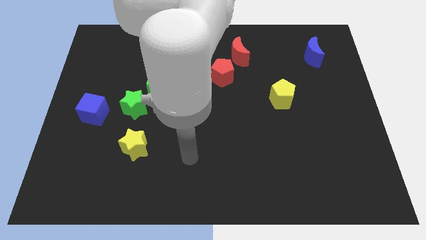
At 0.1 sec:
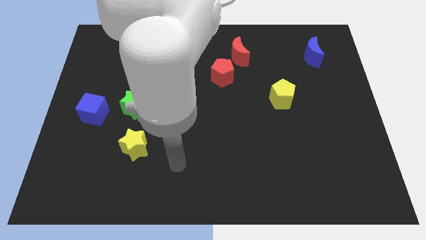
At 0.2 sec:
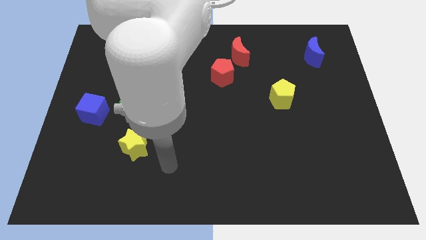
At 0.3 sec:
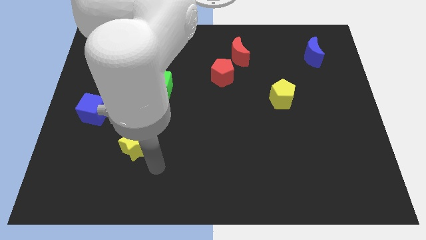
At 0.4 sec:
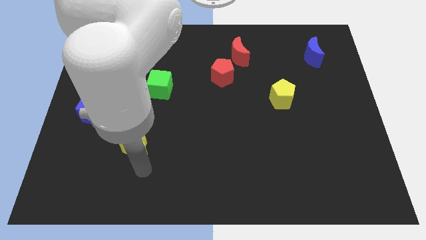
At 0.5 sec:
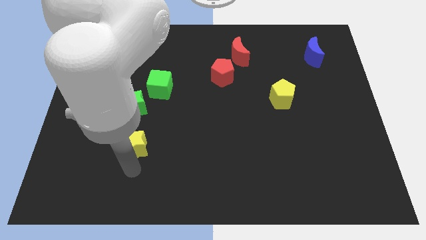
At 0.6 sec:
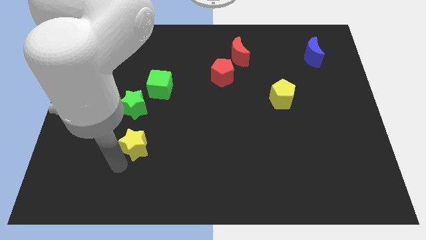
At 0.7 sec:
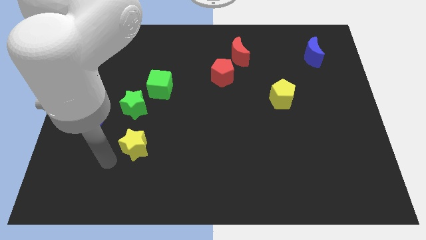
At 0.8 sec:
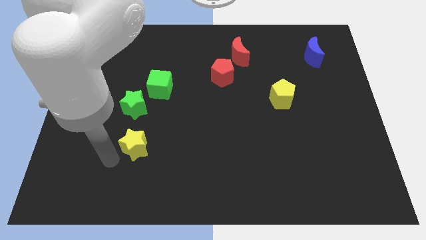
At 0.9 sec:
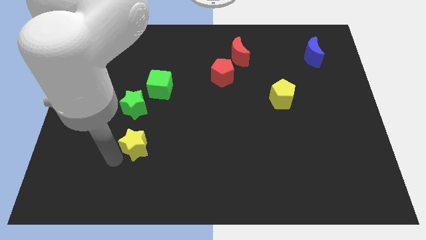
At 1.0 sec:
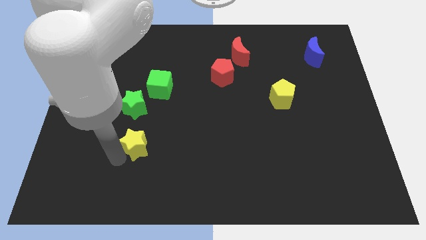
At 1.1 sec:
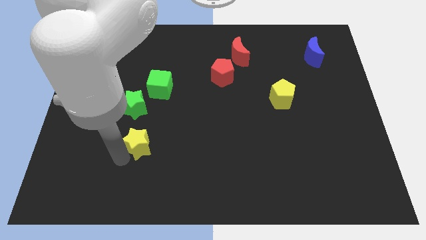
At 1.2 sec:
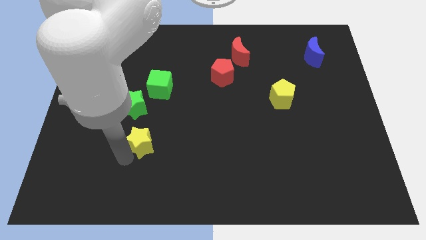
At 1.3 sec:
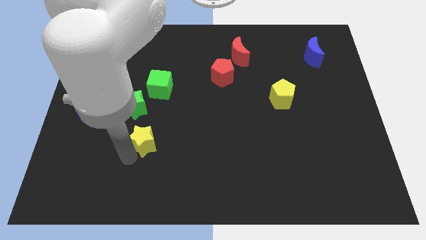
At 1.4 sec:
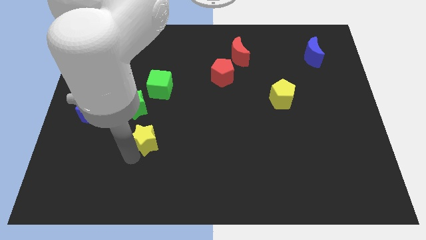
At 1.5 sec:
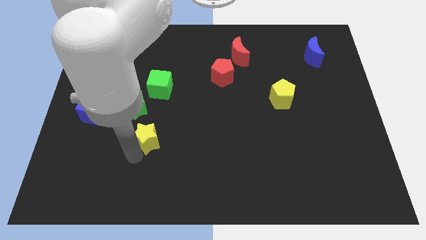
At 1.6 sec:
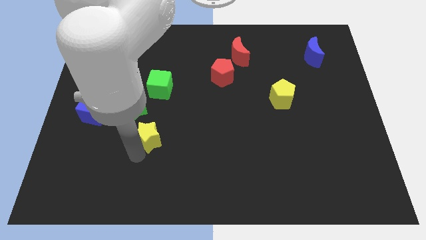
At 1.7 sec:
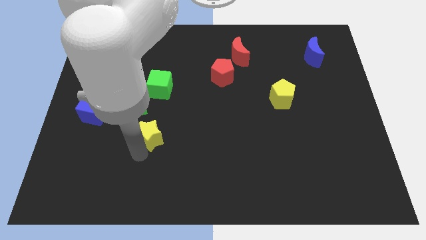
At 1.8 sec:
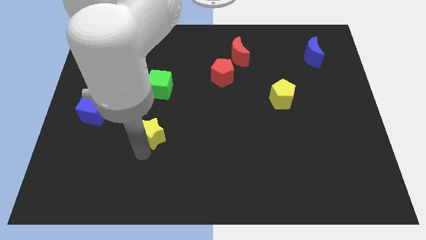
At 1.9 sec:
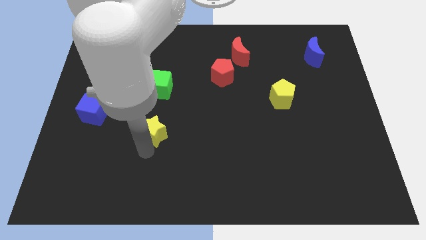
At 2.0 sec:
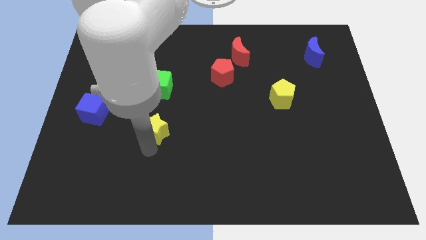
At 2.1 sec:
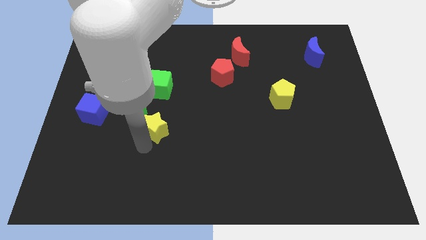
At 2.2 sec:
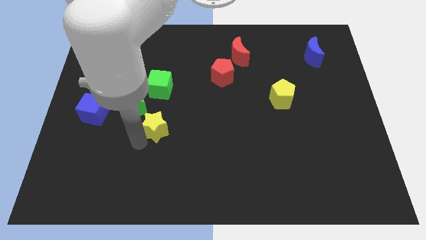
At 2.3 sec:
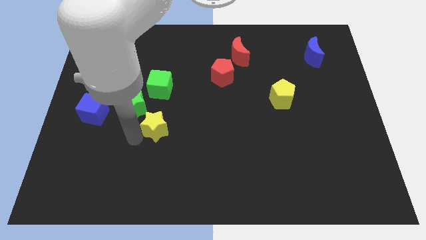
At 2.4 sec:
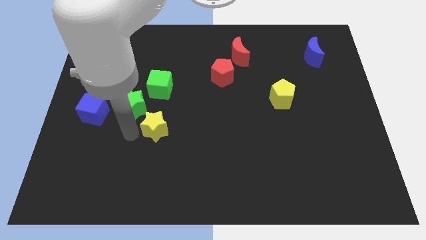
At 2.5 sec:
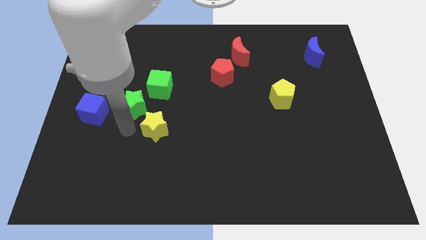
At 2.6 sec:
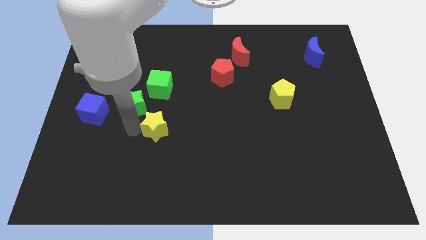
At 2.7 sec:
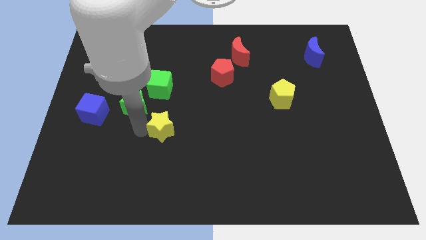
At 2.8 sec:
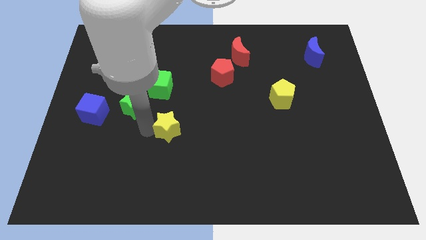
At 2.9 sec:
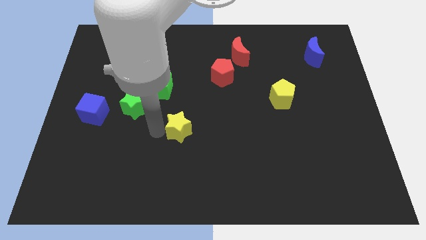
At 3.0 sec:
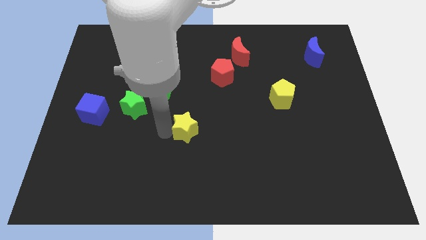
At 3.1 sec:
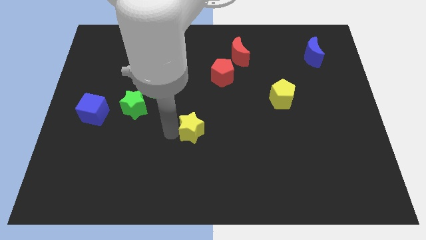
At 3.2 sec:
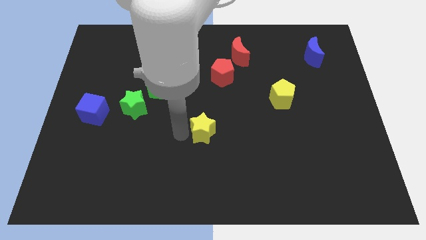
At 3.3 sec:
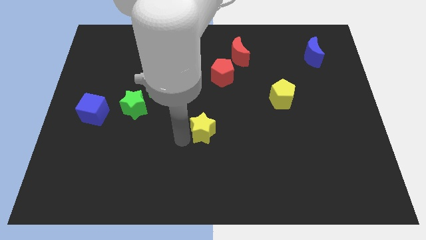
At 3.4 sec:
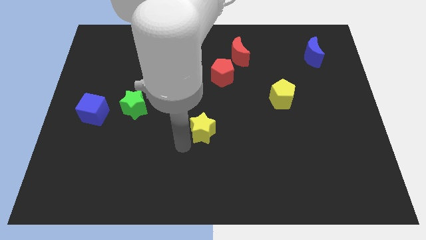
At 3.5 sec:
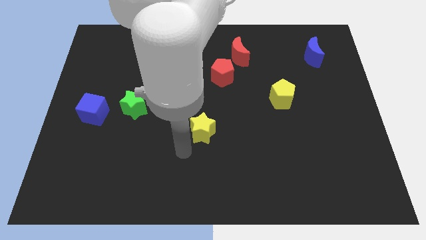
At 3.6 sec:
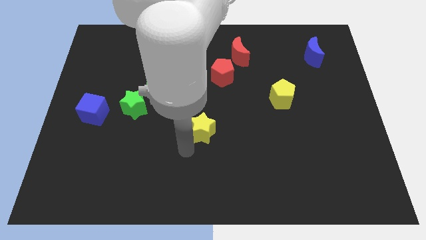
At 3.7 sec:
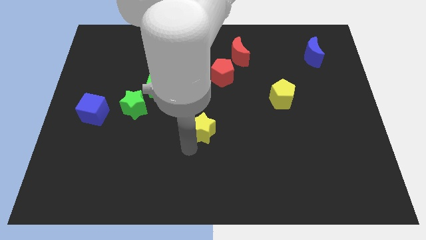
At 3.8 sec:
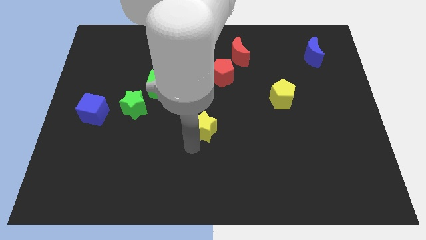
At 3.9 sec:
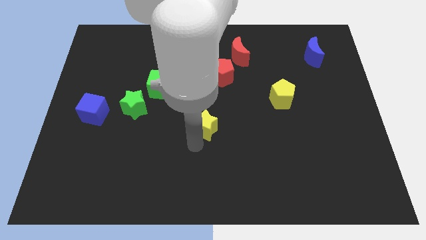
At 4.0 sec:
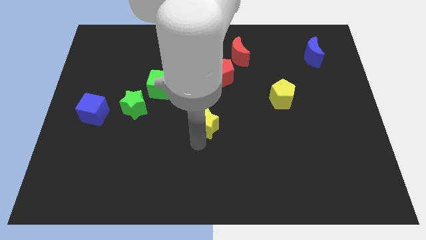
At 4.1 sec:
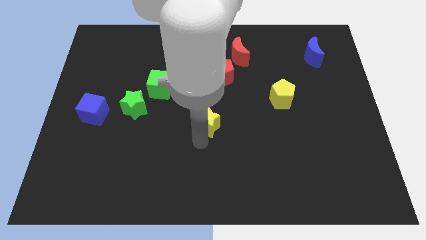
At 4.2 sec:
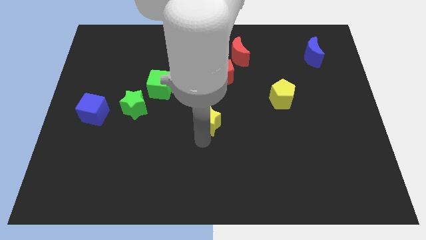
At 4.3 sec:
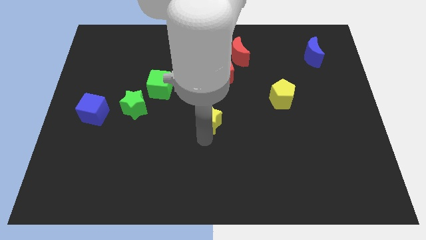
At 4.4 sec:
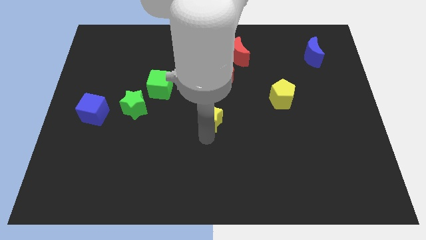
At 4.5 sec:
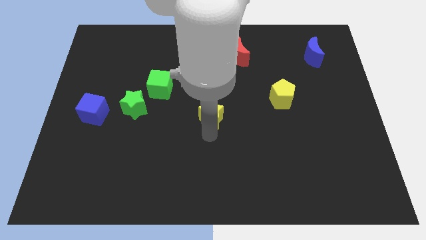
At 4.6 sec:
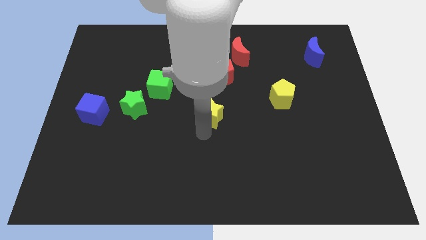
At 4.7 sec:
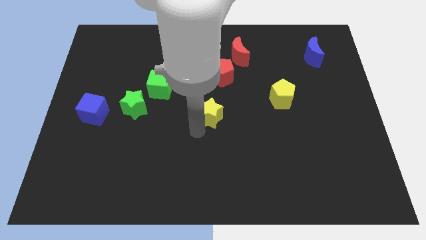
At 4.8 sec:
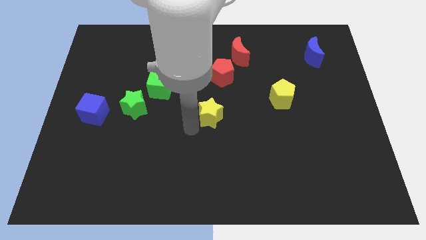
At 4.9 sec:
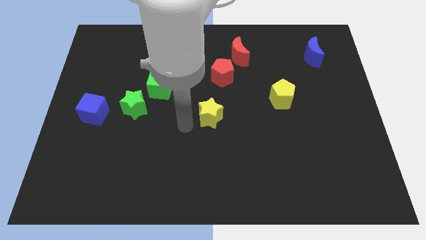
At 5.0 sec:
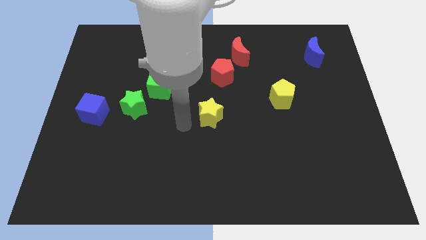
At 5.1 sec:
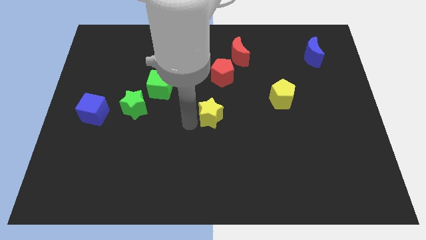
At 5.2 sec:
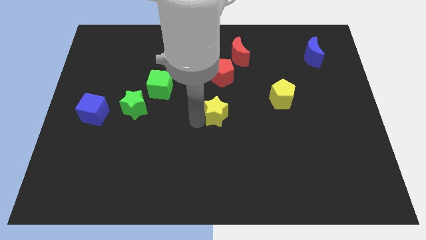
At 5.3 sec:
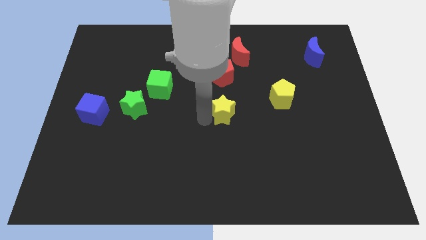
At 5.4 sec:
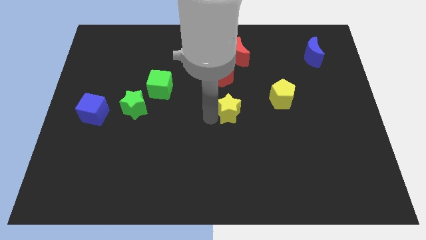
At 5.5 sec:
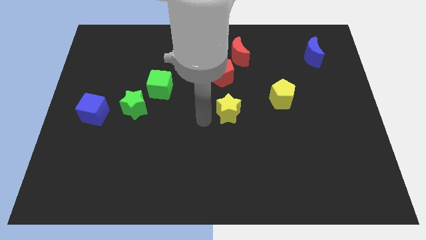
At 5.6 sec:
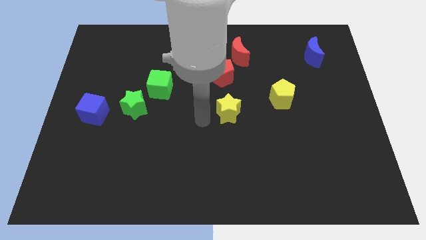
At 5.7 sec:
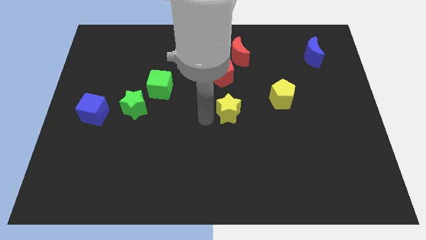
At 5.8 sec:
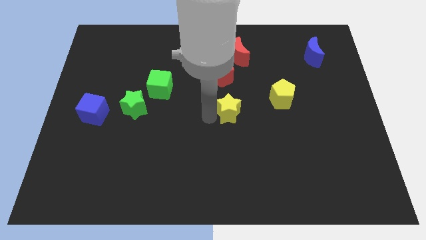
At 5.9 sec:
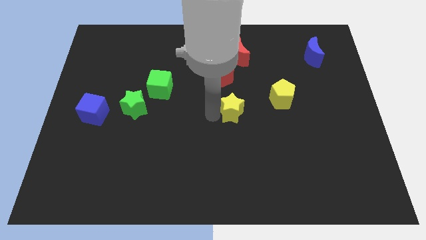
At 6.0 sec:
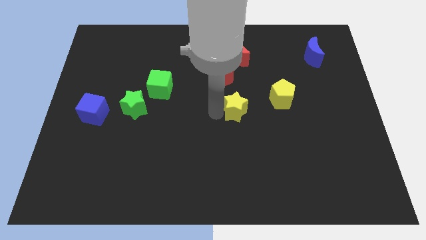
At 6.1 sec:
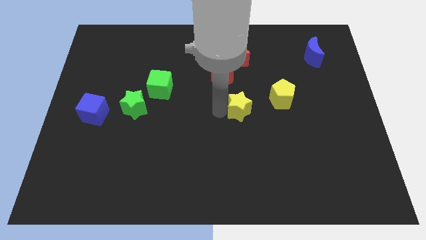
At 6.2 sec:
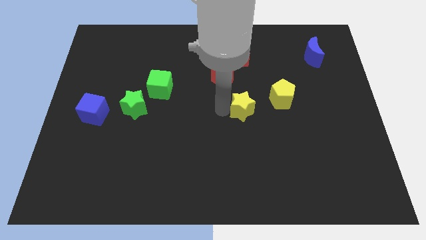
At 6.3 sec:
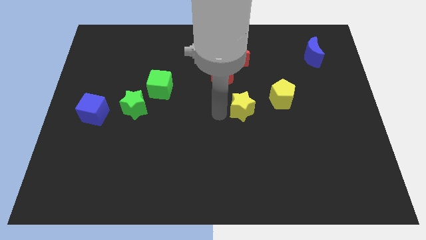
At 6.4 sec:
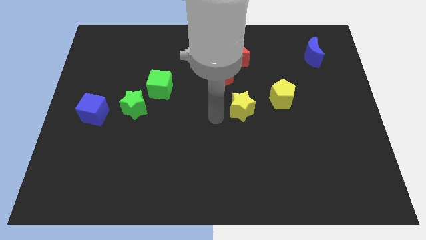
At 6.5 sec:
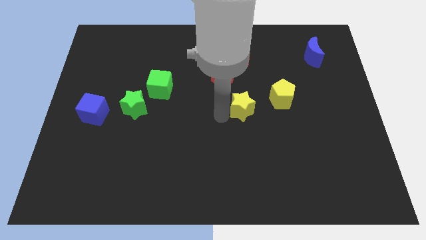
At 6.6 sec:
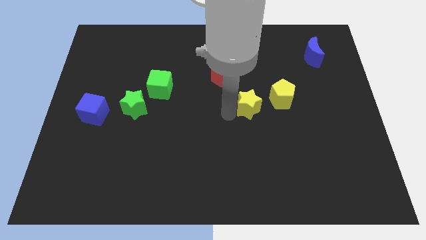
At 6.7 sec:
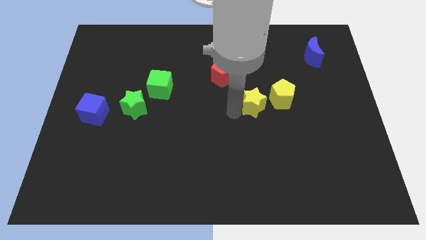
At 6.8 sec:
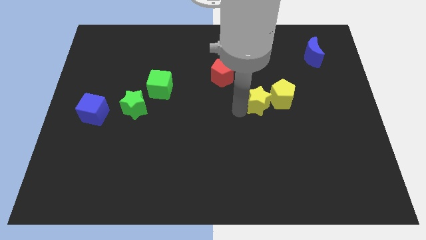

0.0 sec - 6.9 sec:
put the yellow star close to the yellow pentagon

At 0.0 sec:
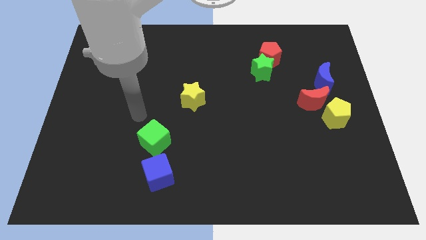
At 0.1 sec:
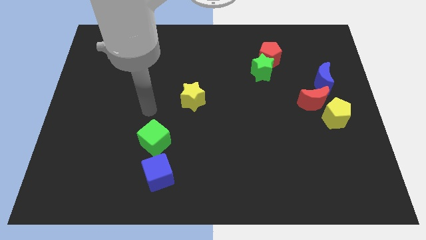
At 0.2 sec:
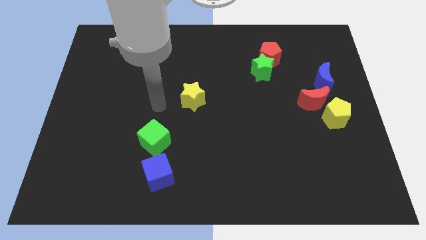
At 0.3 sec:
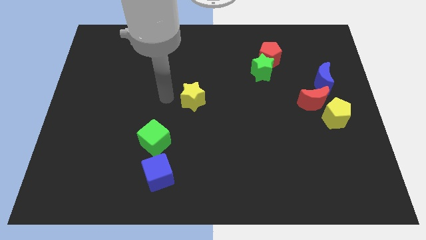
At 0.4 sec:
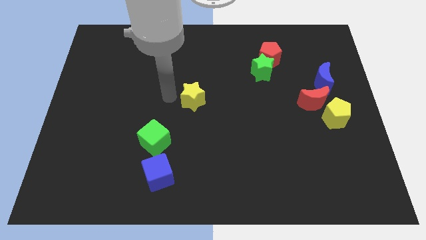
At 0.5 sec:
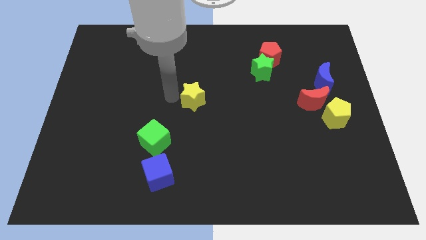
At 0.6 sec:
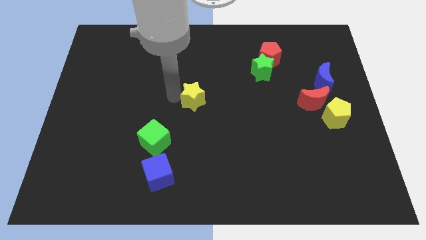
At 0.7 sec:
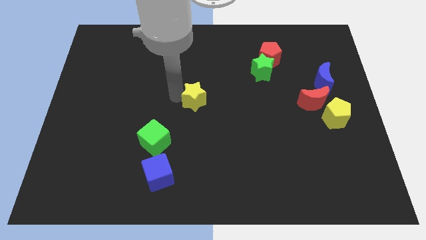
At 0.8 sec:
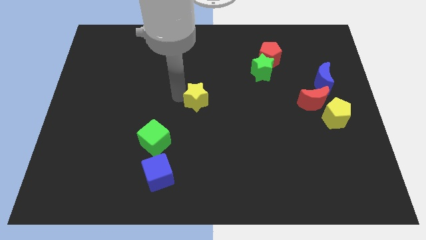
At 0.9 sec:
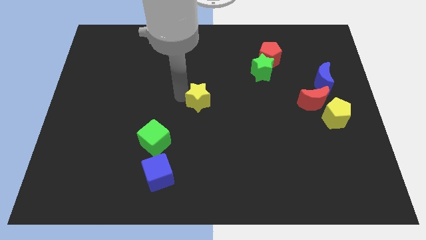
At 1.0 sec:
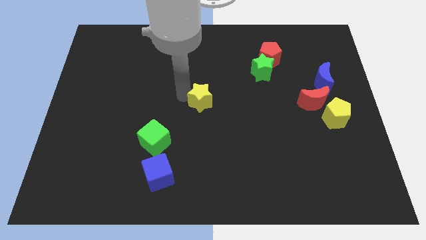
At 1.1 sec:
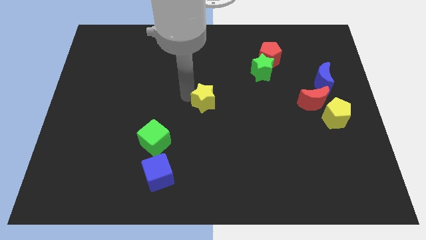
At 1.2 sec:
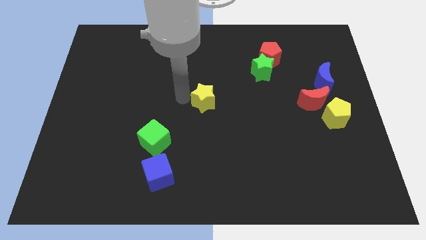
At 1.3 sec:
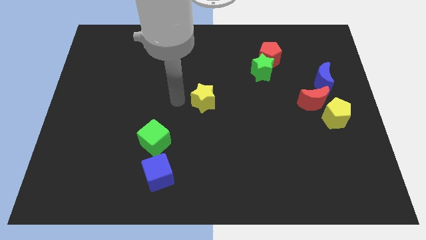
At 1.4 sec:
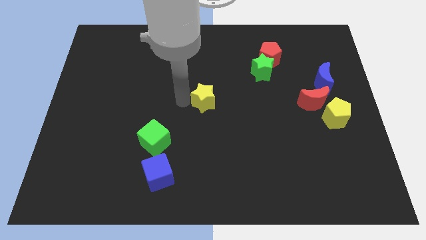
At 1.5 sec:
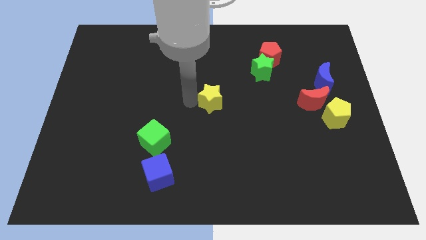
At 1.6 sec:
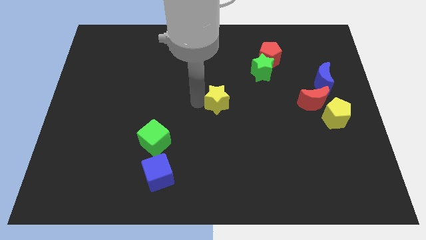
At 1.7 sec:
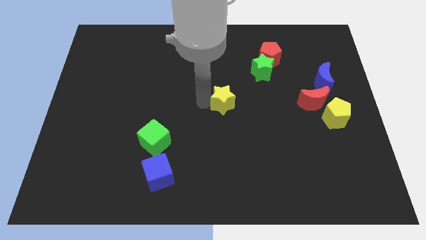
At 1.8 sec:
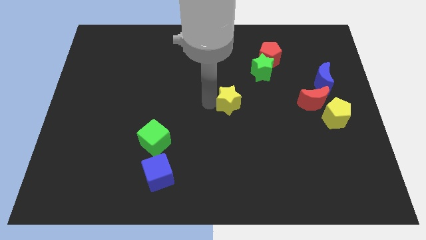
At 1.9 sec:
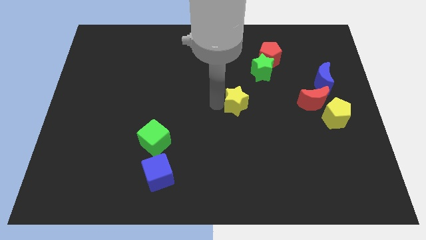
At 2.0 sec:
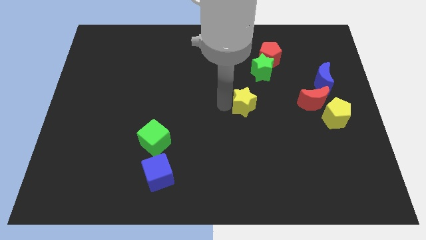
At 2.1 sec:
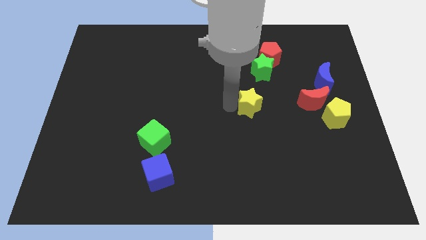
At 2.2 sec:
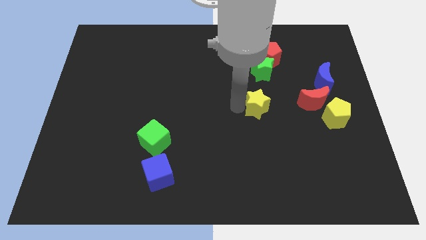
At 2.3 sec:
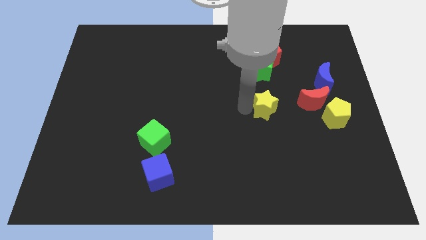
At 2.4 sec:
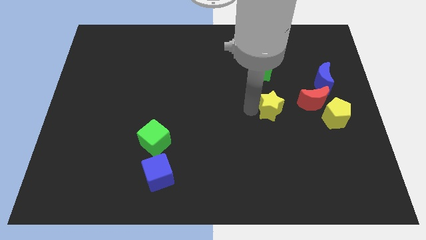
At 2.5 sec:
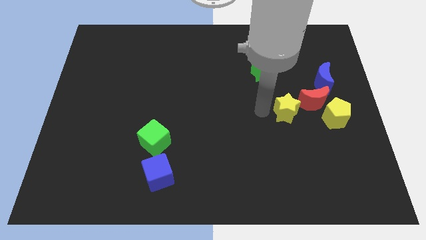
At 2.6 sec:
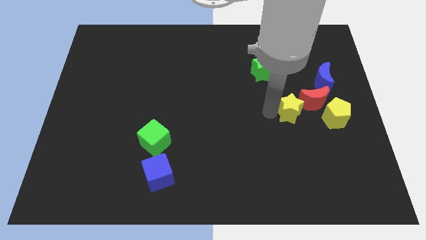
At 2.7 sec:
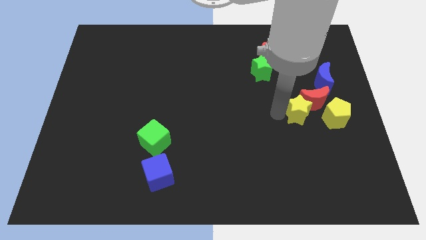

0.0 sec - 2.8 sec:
move the yellow star close to the red moon
